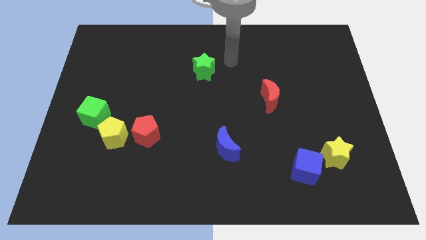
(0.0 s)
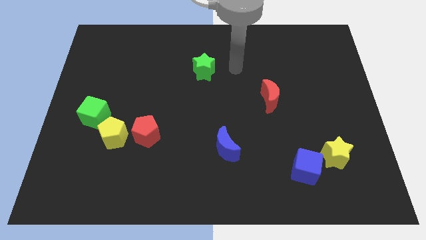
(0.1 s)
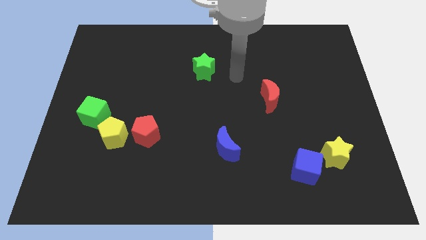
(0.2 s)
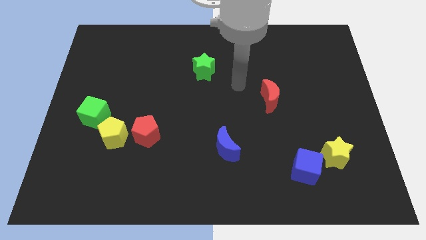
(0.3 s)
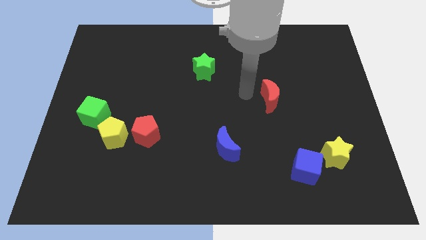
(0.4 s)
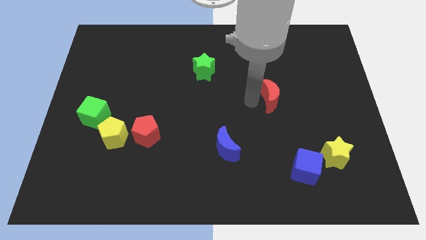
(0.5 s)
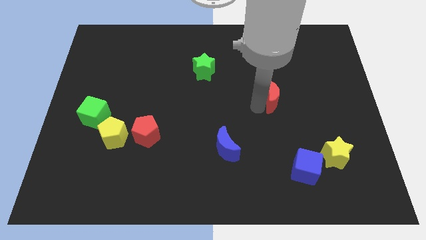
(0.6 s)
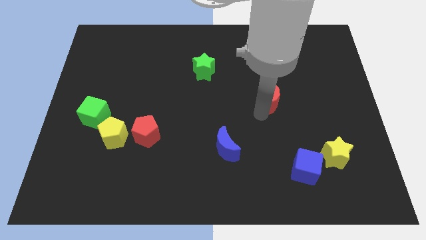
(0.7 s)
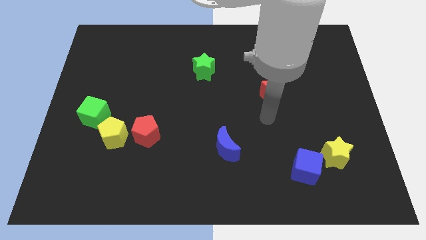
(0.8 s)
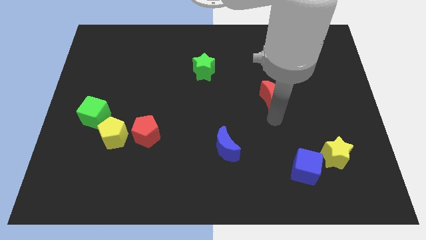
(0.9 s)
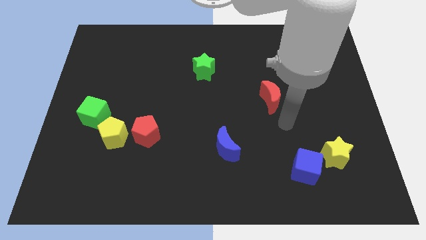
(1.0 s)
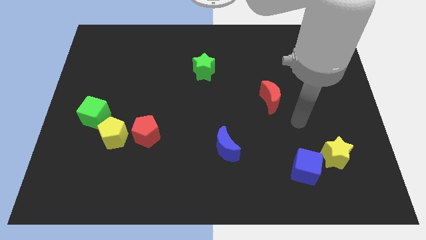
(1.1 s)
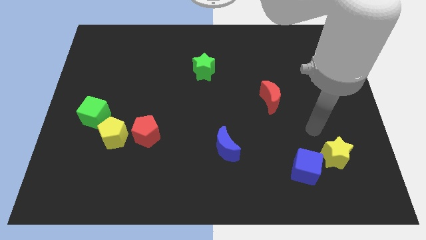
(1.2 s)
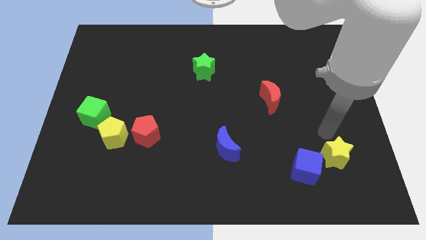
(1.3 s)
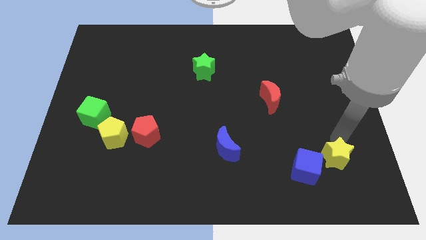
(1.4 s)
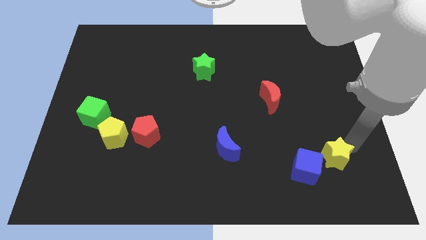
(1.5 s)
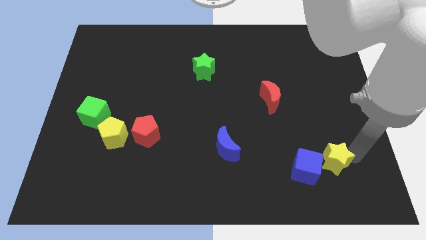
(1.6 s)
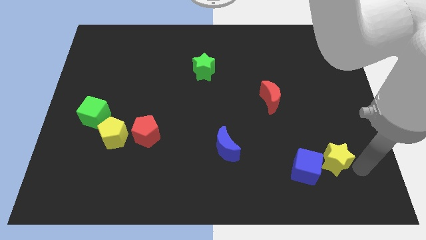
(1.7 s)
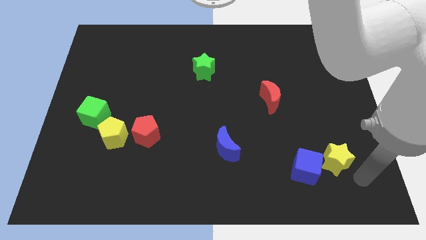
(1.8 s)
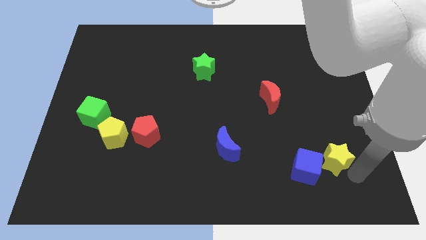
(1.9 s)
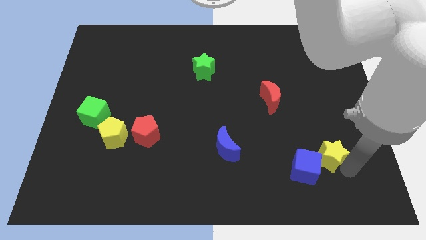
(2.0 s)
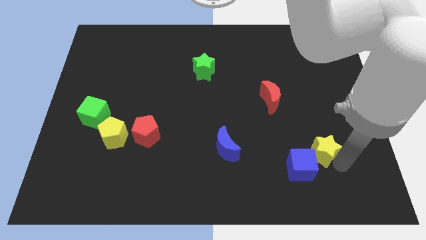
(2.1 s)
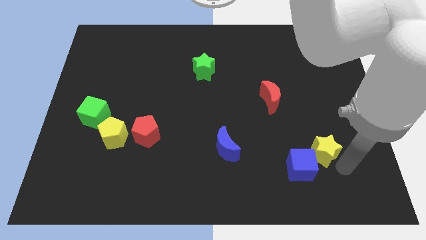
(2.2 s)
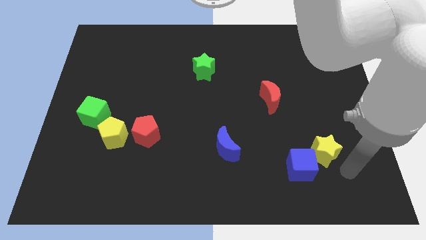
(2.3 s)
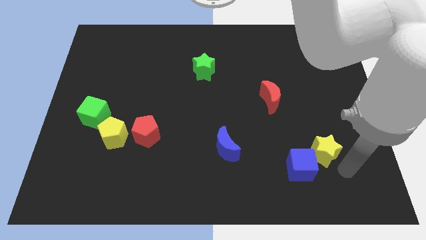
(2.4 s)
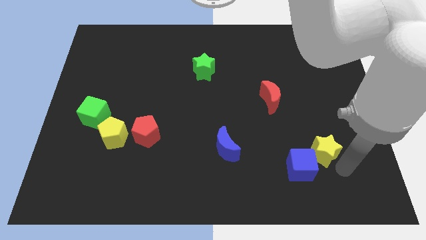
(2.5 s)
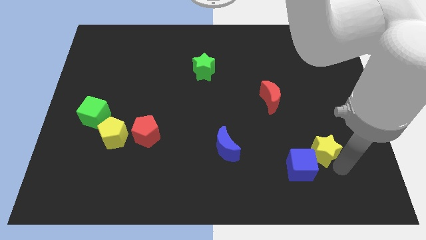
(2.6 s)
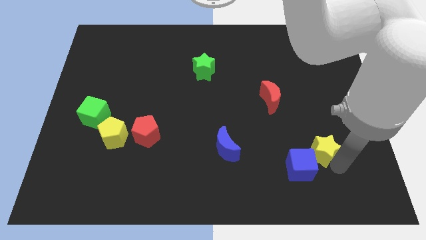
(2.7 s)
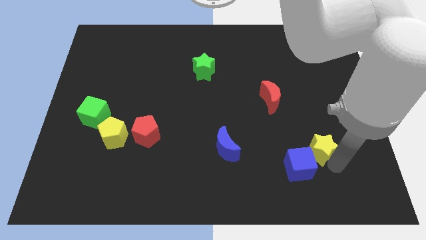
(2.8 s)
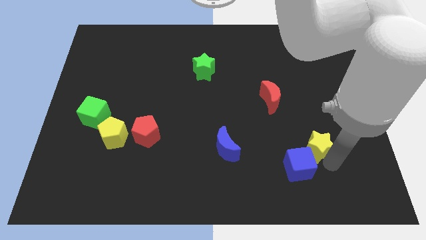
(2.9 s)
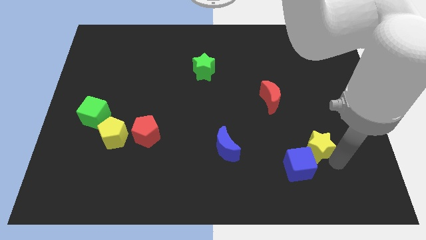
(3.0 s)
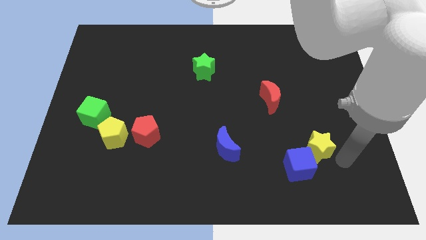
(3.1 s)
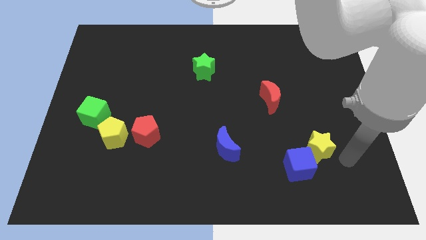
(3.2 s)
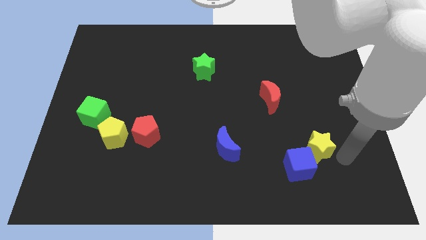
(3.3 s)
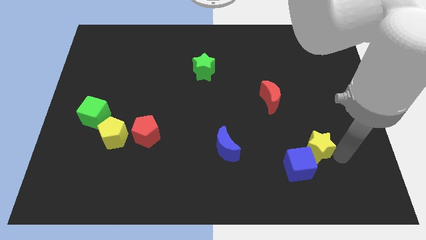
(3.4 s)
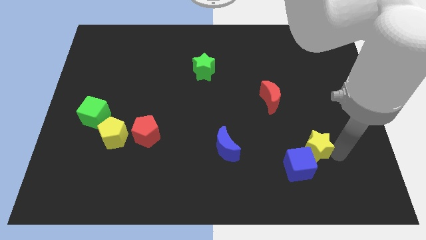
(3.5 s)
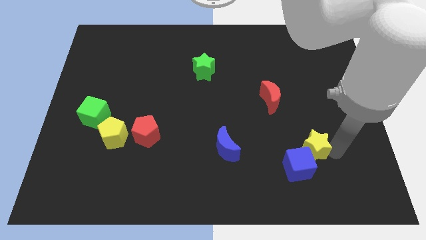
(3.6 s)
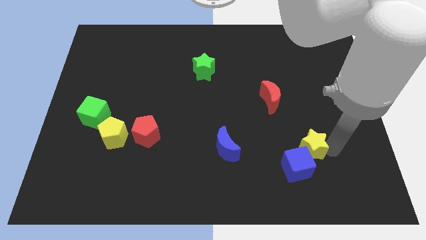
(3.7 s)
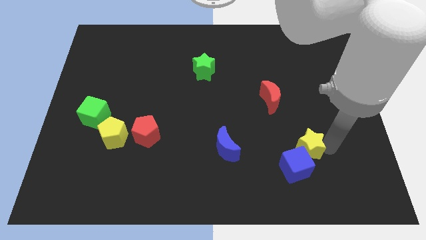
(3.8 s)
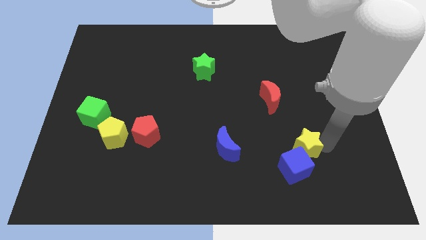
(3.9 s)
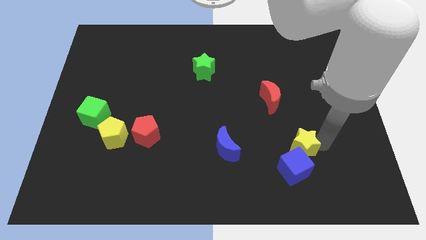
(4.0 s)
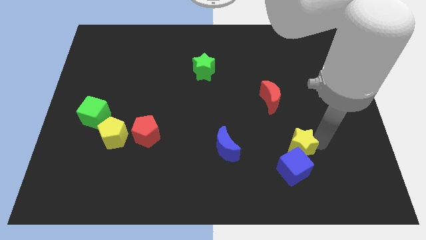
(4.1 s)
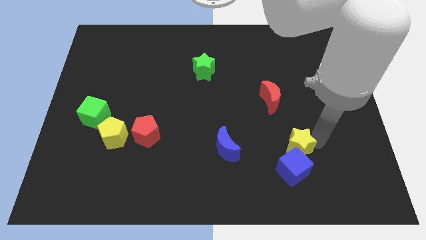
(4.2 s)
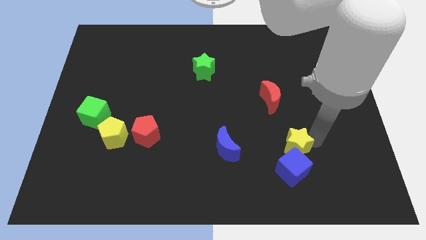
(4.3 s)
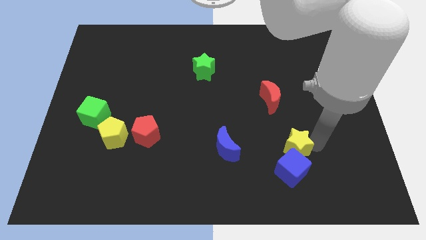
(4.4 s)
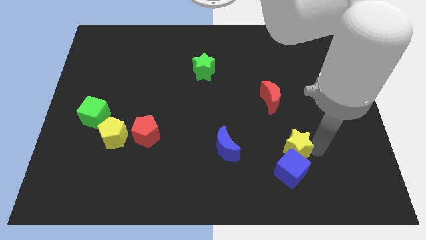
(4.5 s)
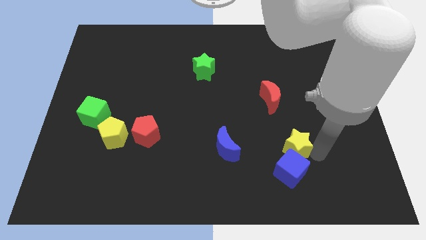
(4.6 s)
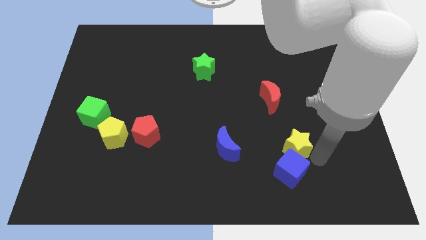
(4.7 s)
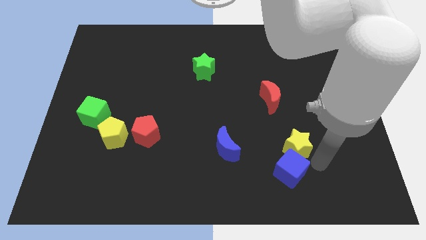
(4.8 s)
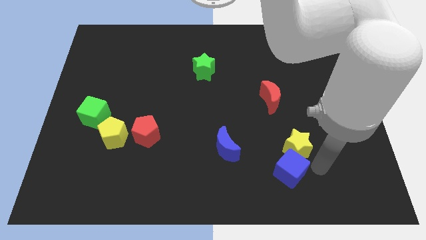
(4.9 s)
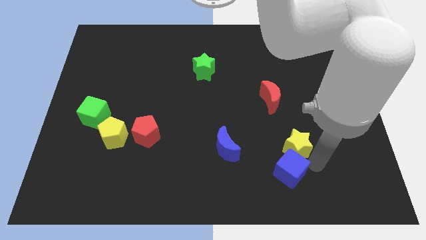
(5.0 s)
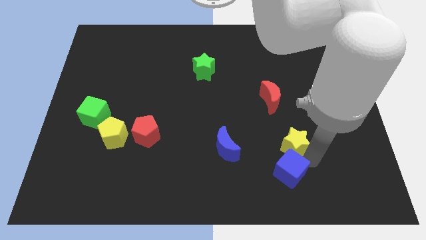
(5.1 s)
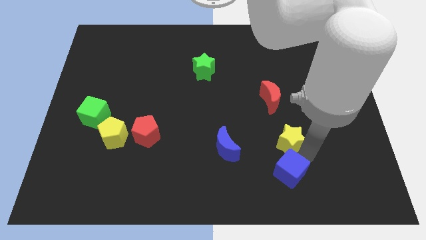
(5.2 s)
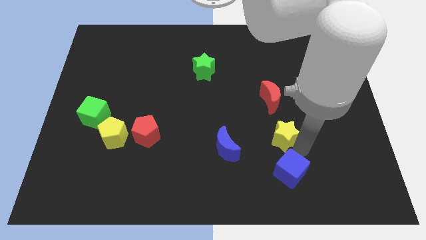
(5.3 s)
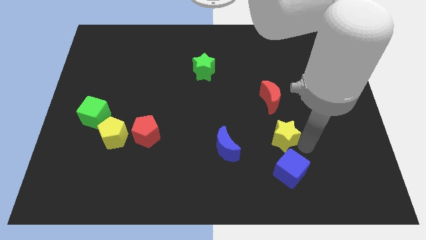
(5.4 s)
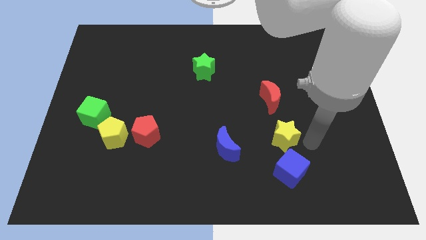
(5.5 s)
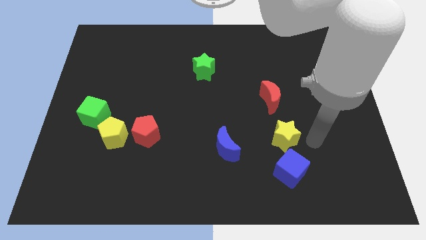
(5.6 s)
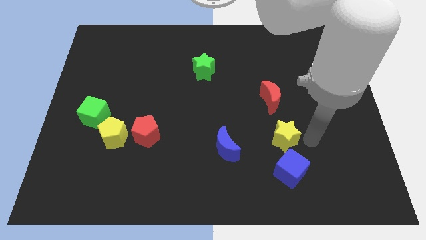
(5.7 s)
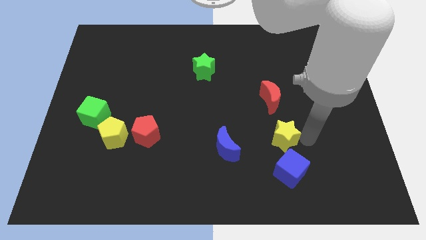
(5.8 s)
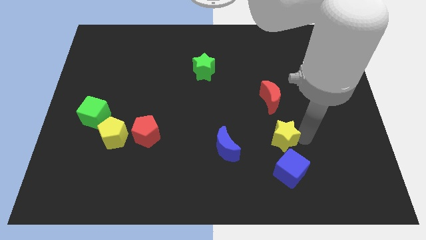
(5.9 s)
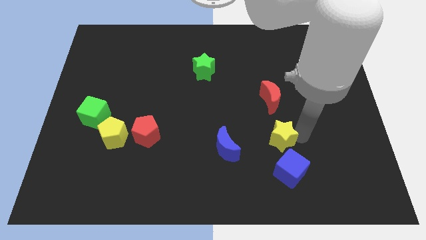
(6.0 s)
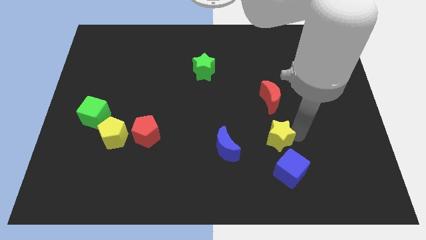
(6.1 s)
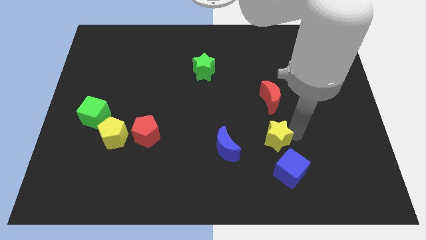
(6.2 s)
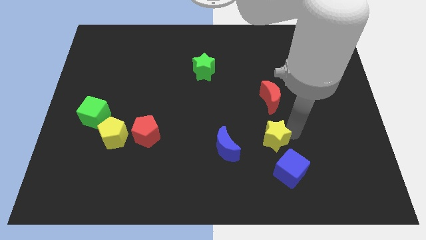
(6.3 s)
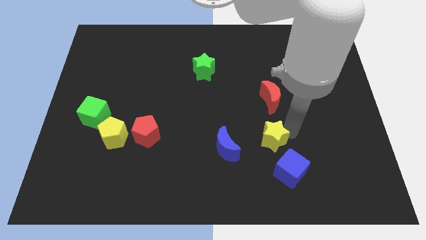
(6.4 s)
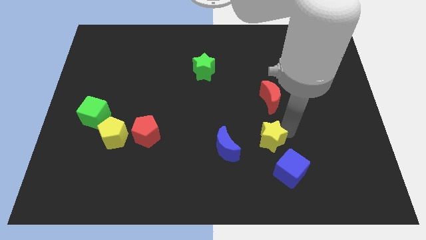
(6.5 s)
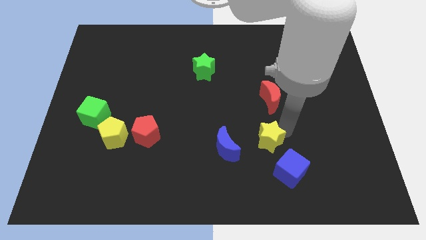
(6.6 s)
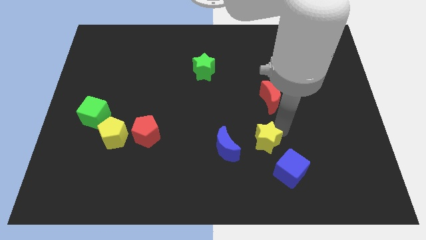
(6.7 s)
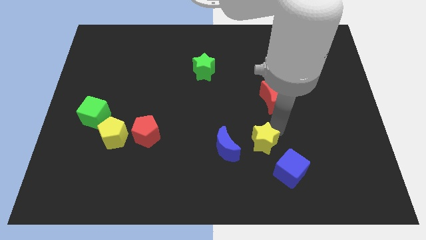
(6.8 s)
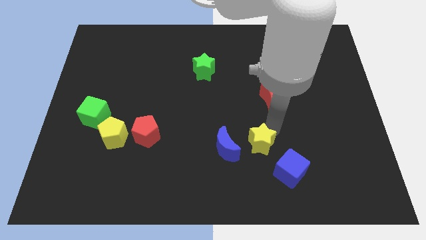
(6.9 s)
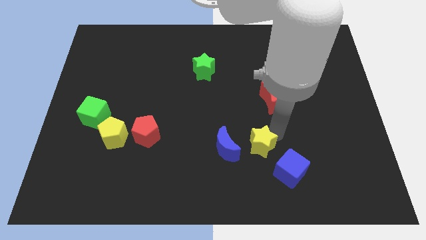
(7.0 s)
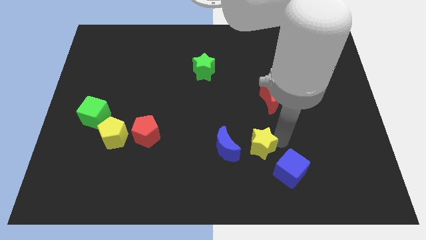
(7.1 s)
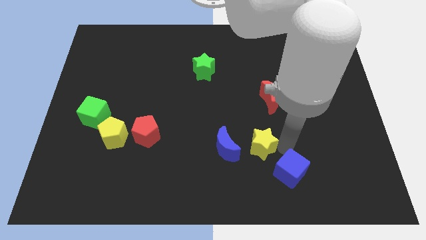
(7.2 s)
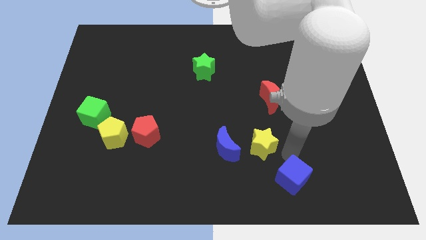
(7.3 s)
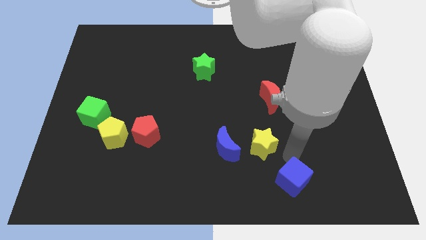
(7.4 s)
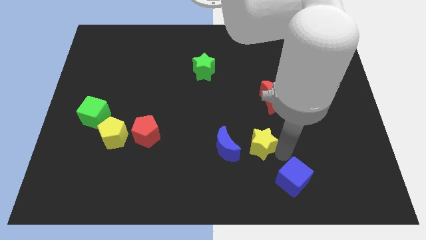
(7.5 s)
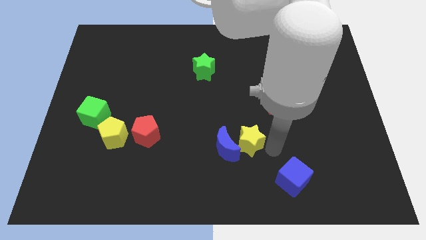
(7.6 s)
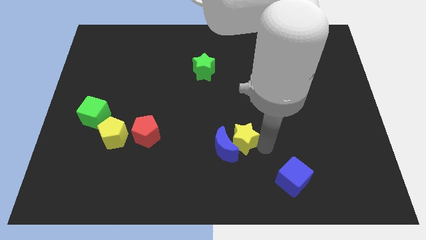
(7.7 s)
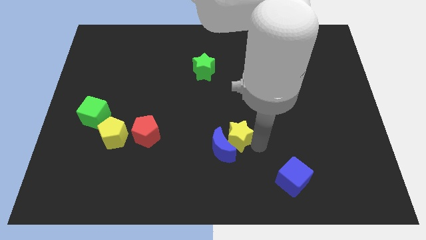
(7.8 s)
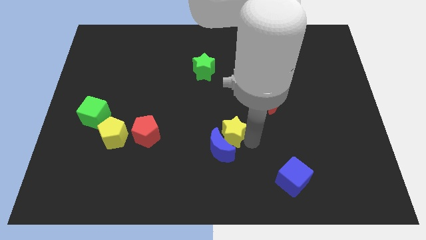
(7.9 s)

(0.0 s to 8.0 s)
slide the yellow star left

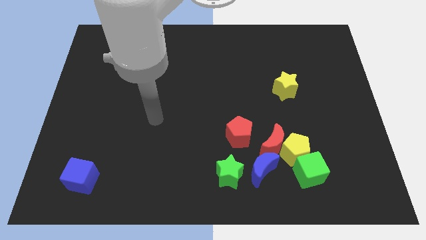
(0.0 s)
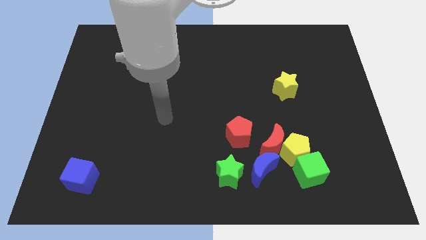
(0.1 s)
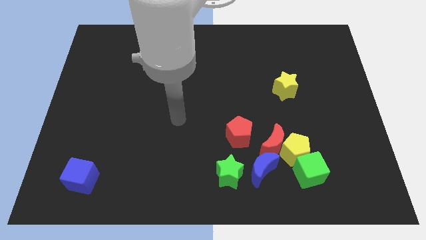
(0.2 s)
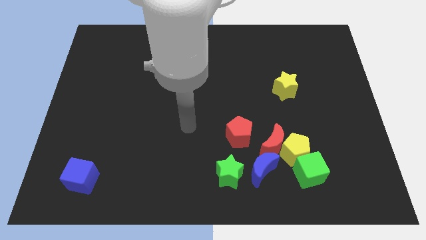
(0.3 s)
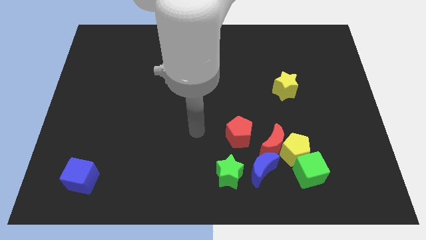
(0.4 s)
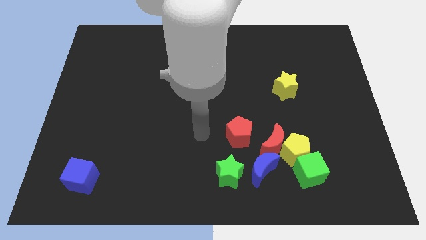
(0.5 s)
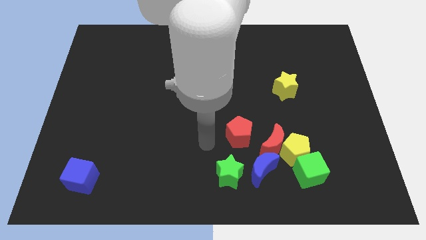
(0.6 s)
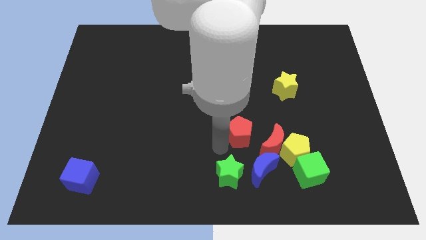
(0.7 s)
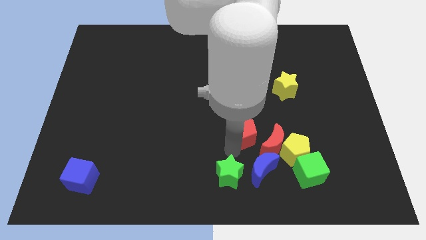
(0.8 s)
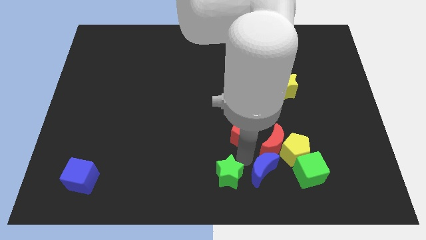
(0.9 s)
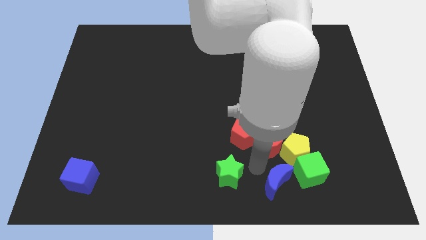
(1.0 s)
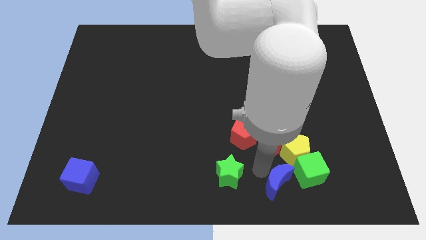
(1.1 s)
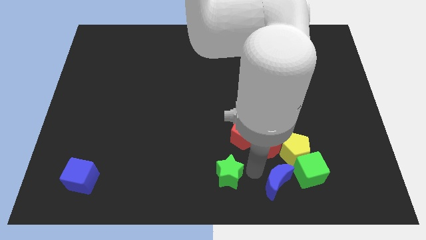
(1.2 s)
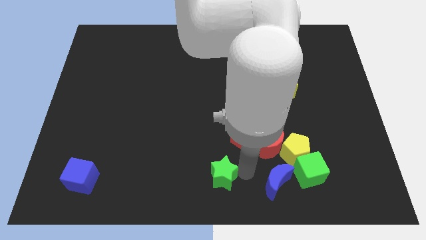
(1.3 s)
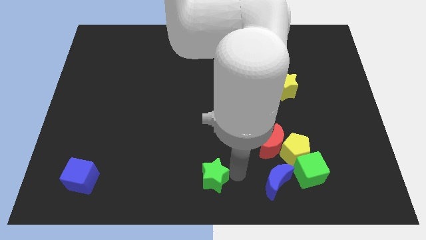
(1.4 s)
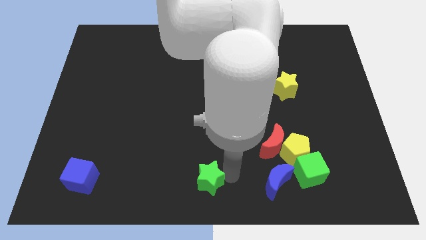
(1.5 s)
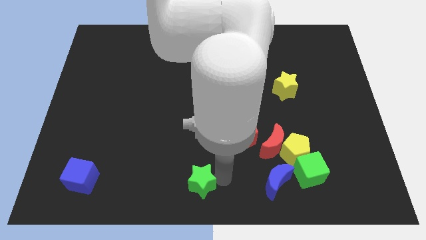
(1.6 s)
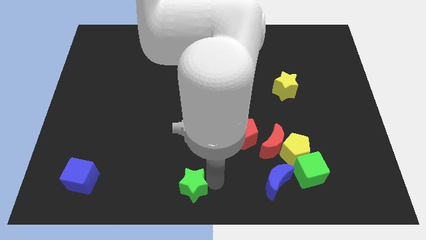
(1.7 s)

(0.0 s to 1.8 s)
slightly move the green star to the left
